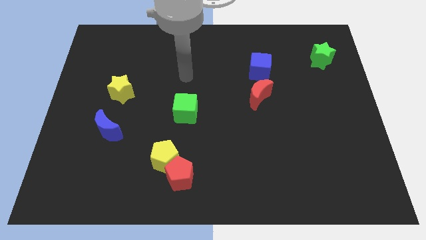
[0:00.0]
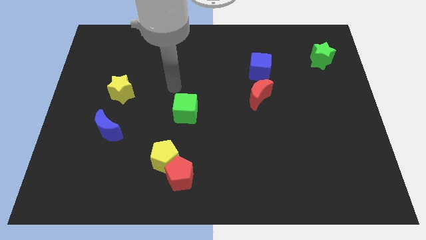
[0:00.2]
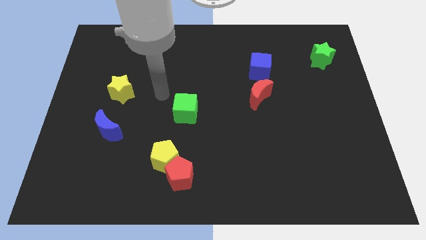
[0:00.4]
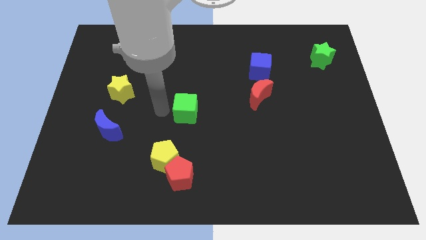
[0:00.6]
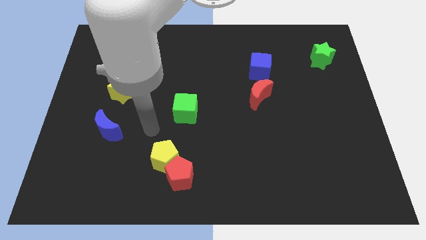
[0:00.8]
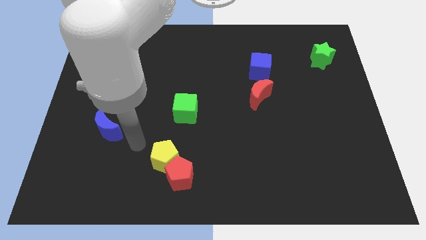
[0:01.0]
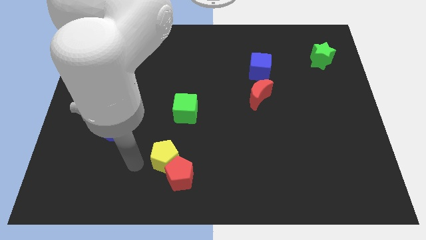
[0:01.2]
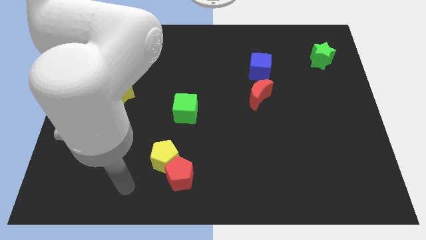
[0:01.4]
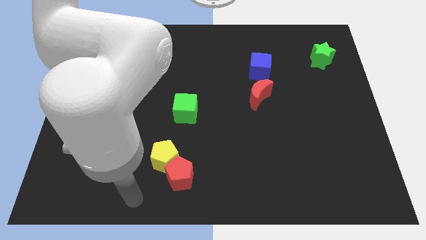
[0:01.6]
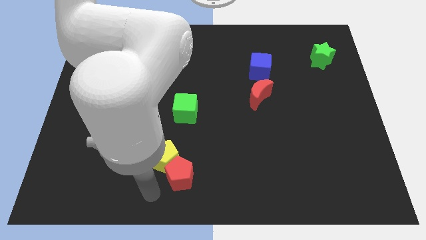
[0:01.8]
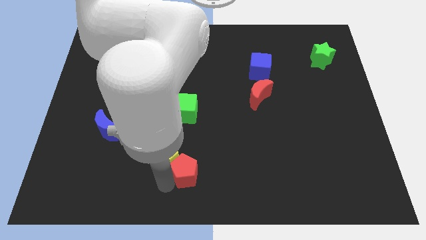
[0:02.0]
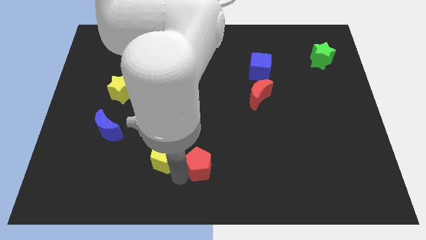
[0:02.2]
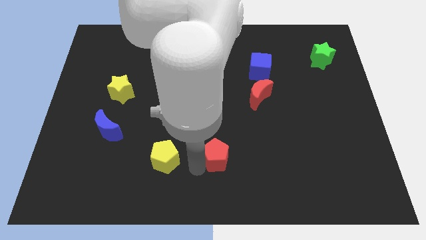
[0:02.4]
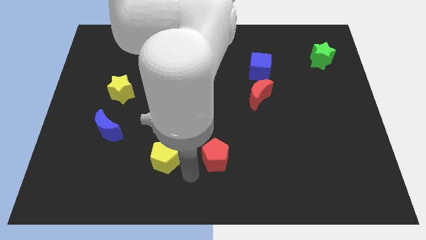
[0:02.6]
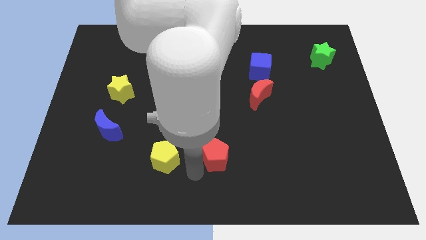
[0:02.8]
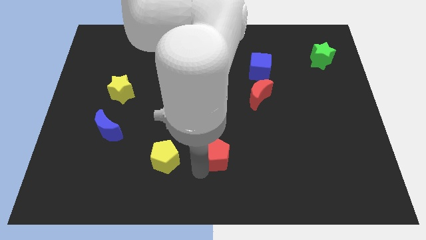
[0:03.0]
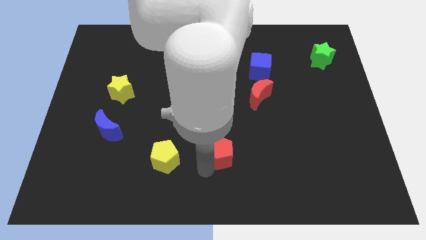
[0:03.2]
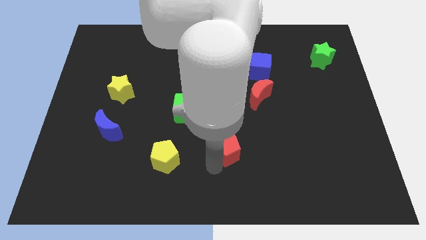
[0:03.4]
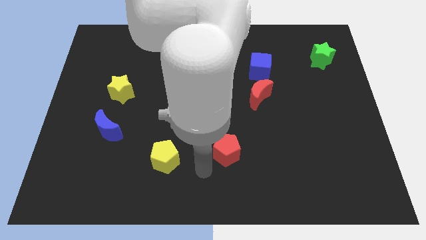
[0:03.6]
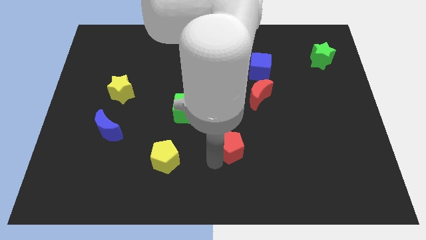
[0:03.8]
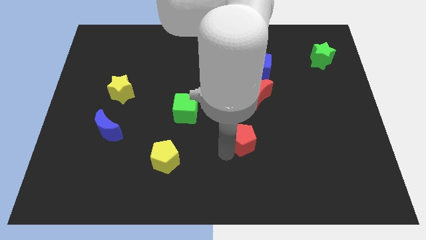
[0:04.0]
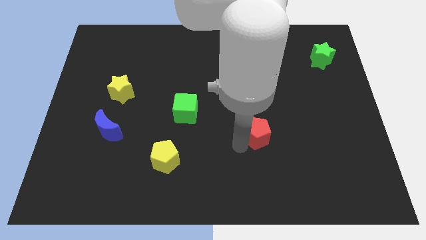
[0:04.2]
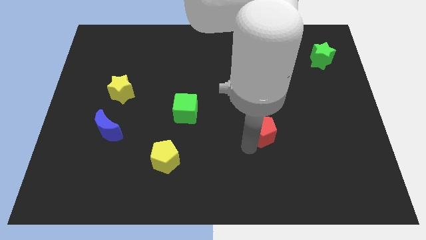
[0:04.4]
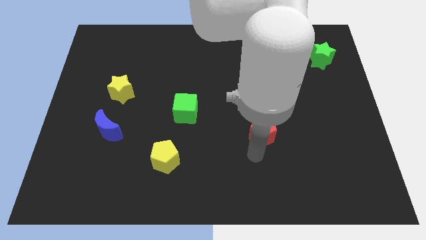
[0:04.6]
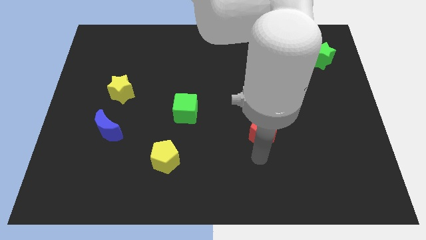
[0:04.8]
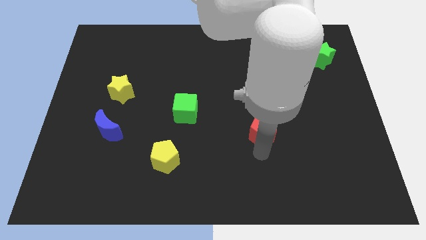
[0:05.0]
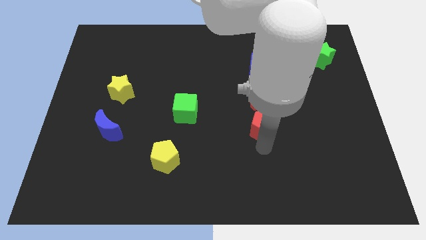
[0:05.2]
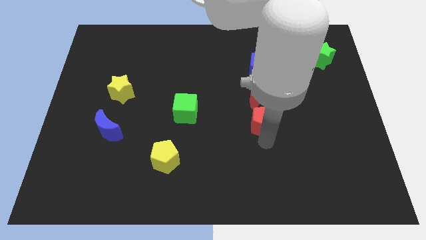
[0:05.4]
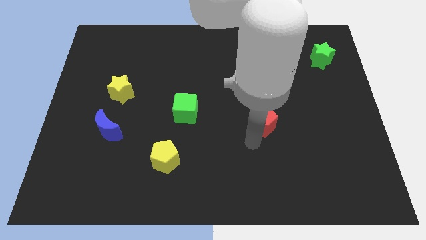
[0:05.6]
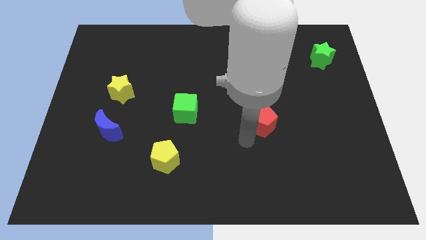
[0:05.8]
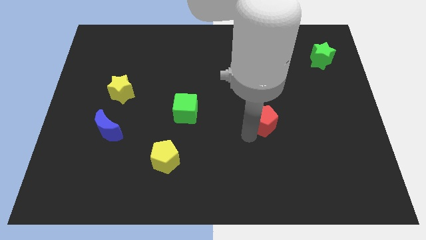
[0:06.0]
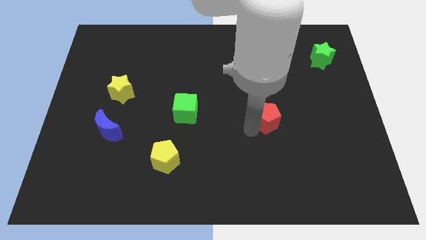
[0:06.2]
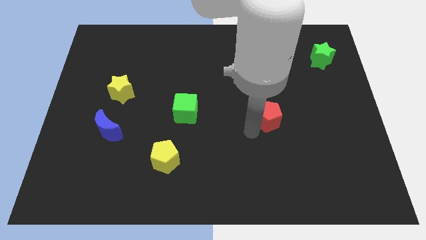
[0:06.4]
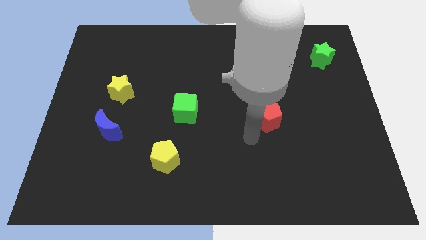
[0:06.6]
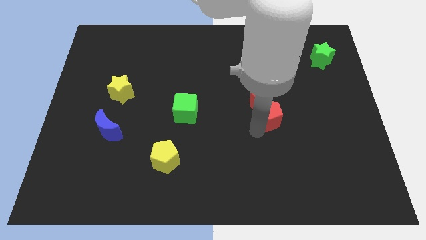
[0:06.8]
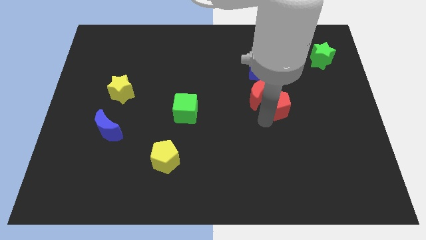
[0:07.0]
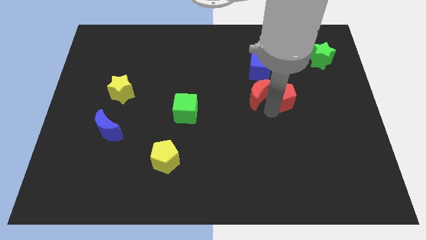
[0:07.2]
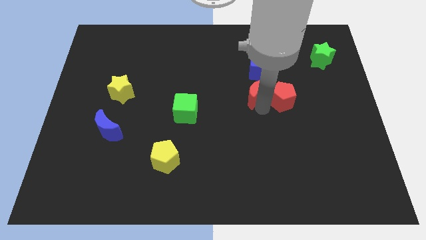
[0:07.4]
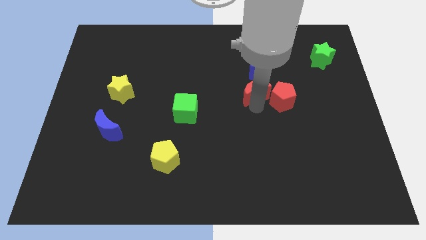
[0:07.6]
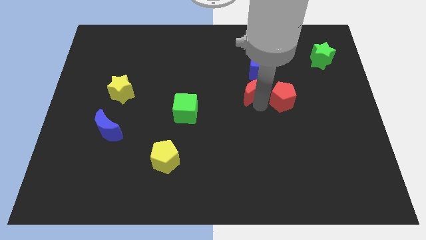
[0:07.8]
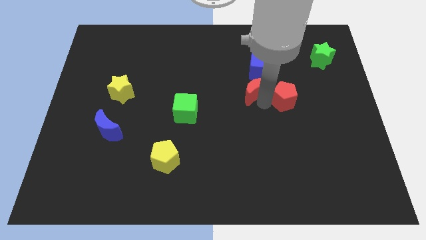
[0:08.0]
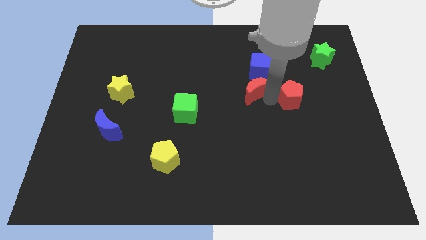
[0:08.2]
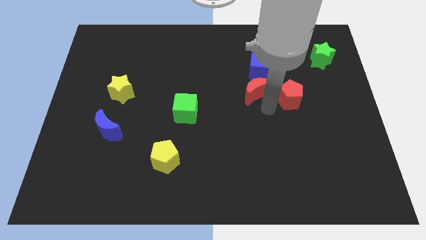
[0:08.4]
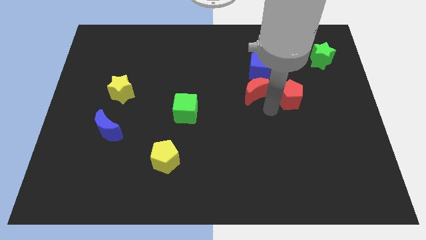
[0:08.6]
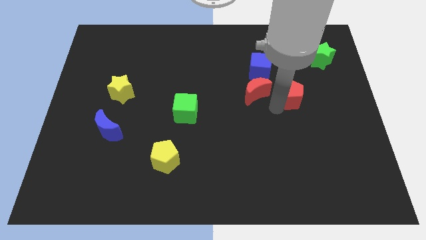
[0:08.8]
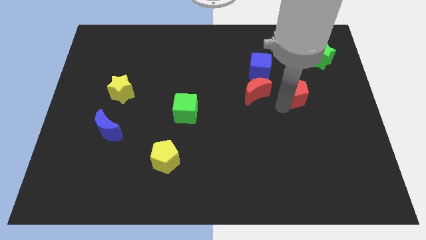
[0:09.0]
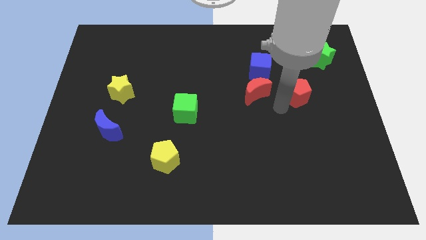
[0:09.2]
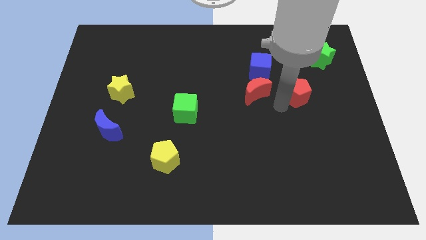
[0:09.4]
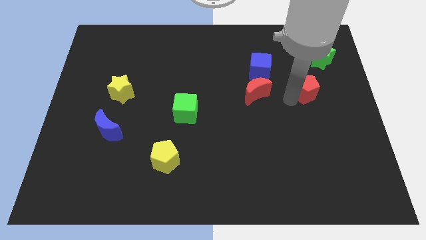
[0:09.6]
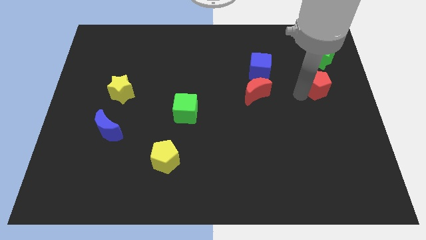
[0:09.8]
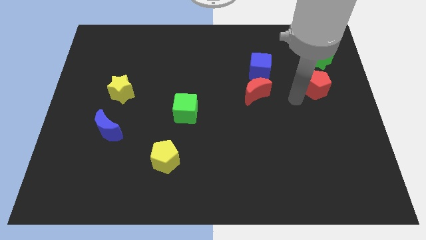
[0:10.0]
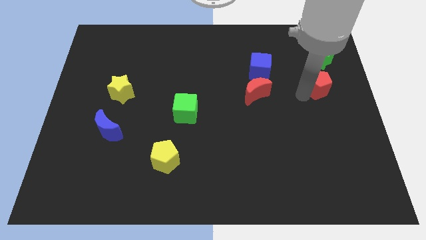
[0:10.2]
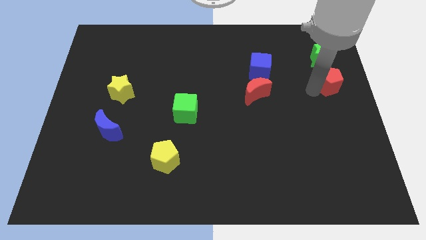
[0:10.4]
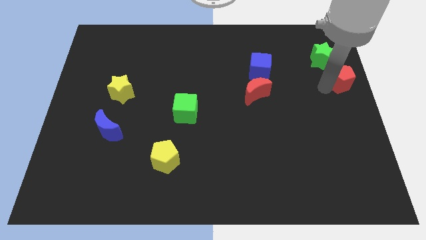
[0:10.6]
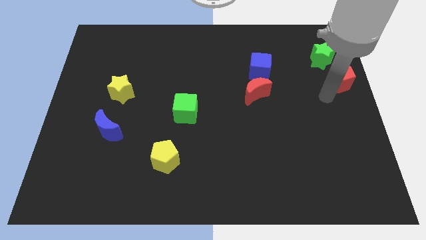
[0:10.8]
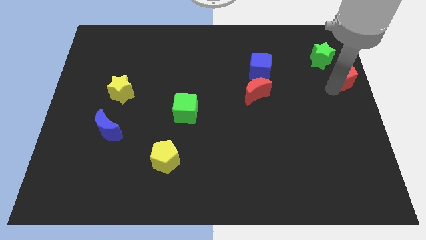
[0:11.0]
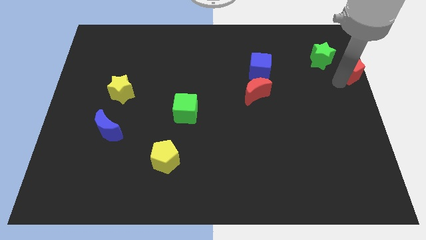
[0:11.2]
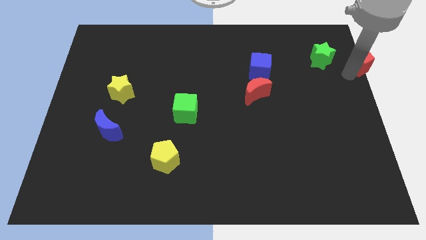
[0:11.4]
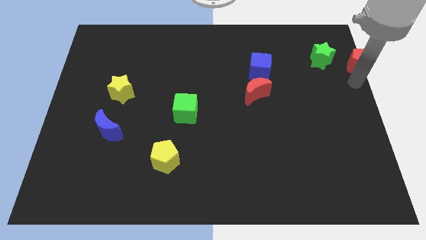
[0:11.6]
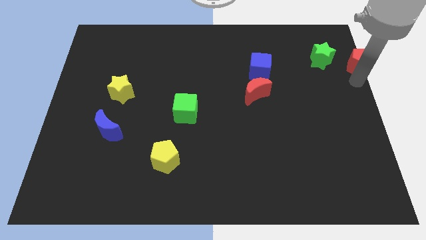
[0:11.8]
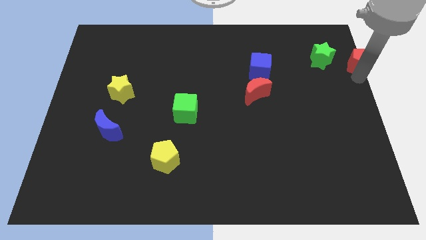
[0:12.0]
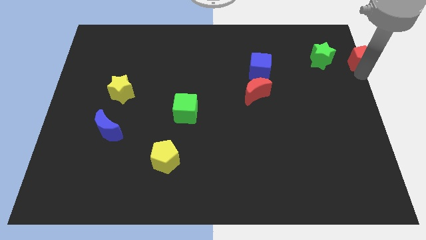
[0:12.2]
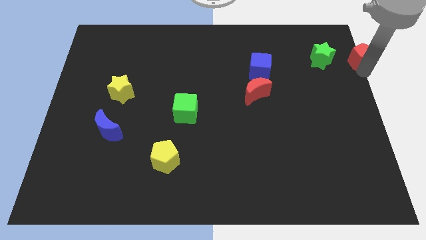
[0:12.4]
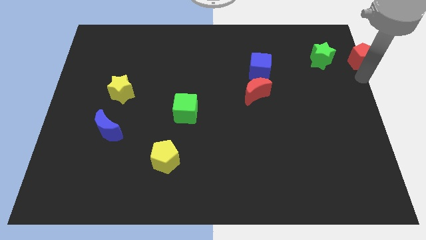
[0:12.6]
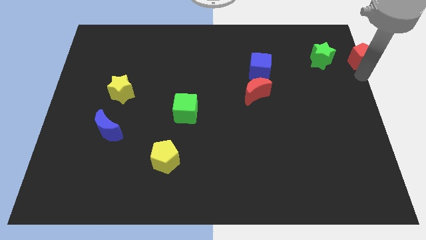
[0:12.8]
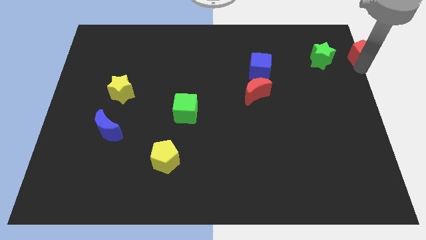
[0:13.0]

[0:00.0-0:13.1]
slide the red pentagon to the top right
